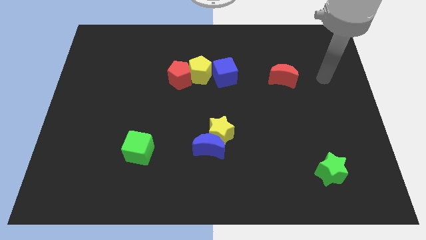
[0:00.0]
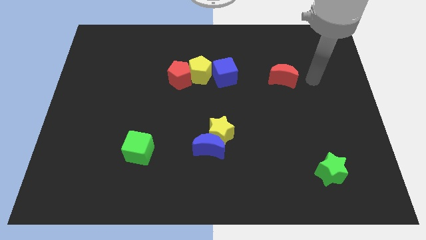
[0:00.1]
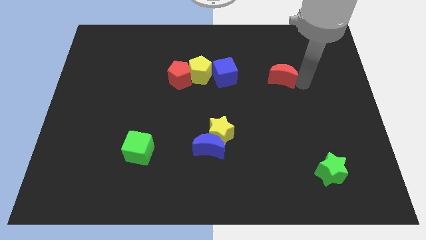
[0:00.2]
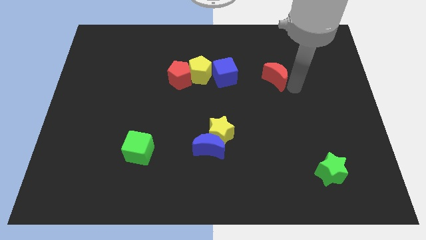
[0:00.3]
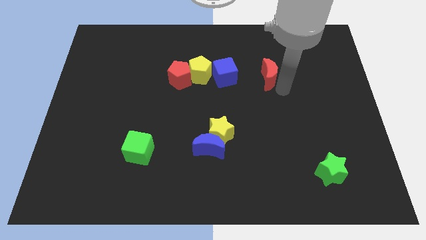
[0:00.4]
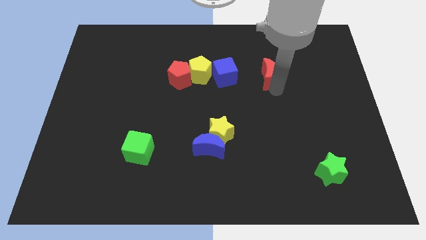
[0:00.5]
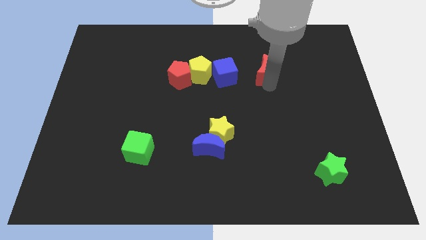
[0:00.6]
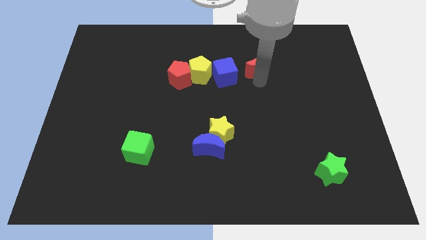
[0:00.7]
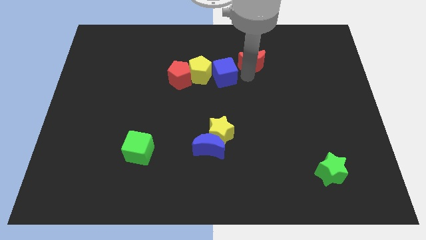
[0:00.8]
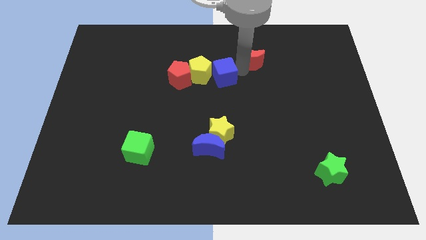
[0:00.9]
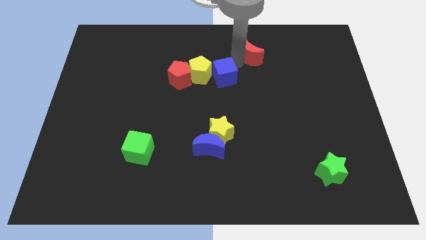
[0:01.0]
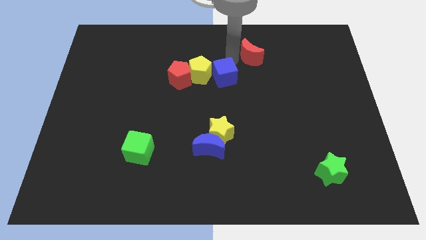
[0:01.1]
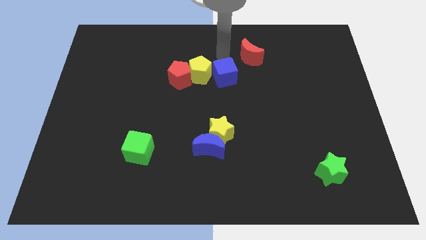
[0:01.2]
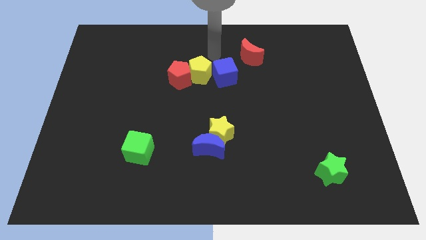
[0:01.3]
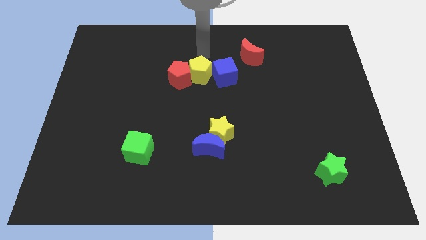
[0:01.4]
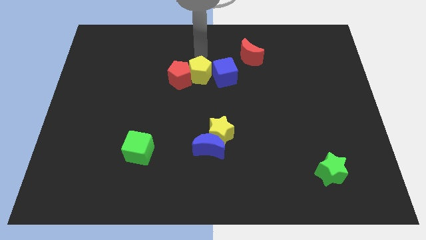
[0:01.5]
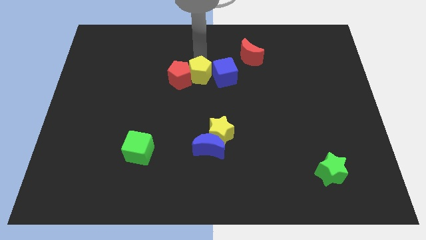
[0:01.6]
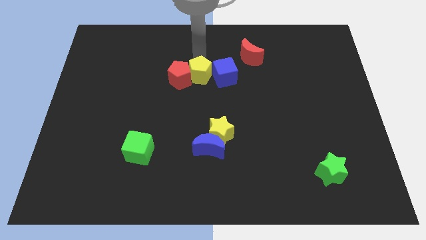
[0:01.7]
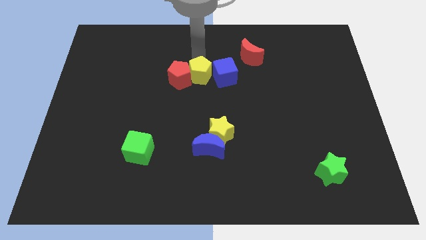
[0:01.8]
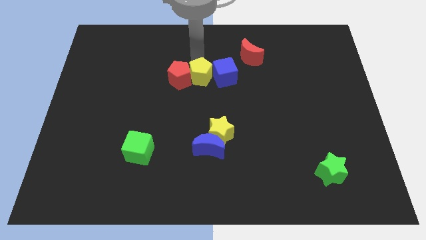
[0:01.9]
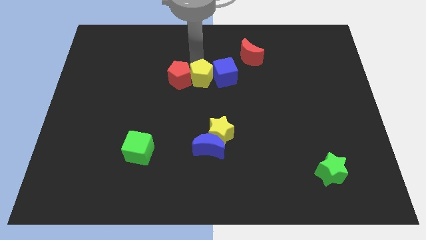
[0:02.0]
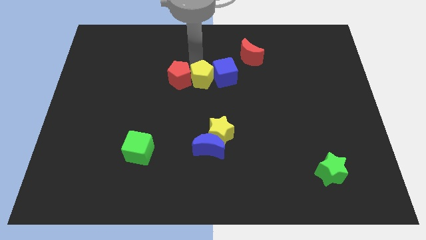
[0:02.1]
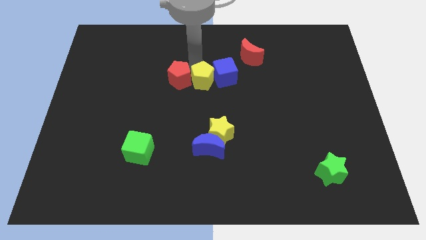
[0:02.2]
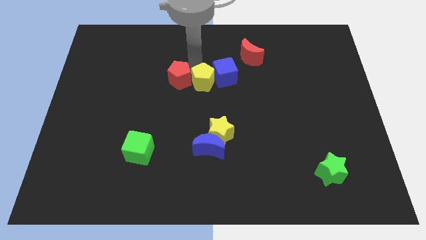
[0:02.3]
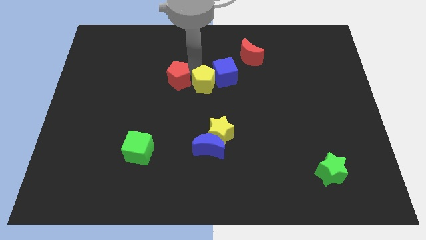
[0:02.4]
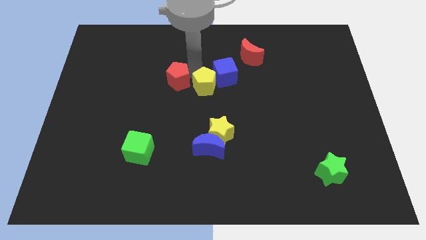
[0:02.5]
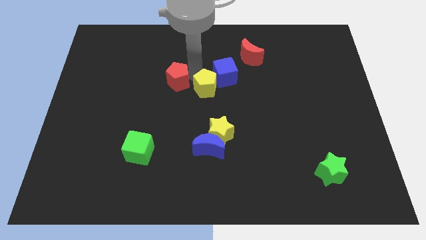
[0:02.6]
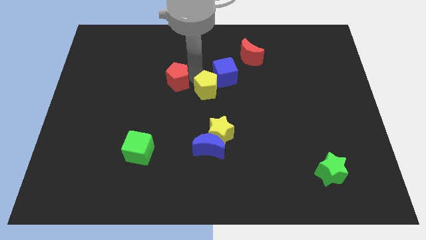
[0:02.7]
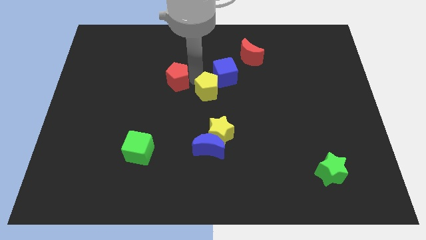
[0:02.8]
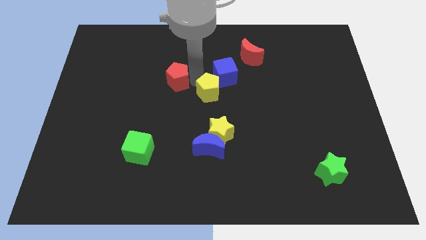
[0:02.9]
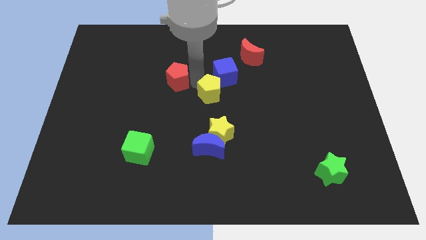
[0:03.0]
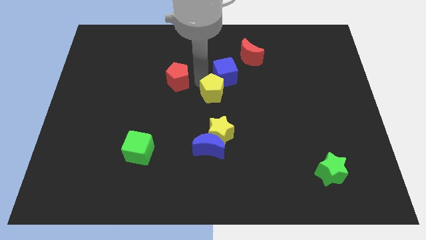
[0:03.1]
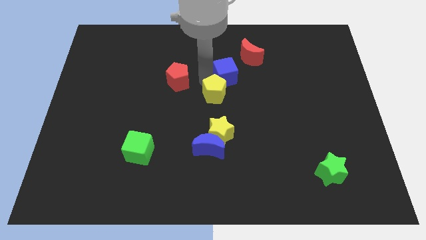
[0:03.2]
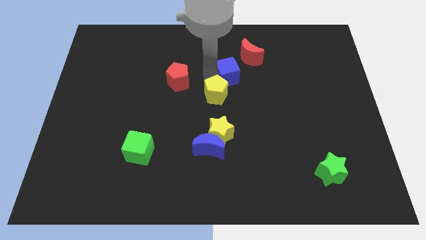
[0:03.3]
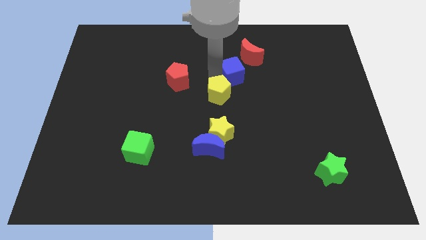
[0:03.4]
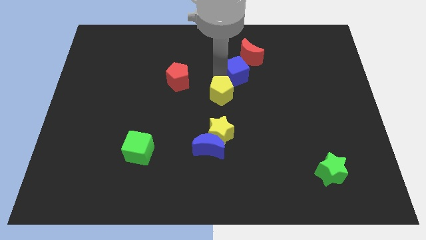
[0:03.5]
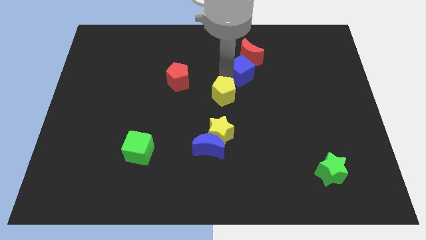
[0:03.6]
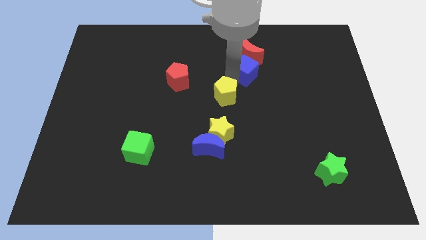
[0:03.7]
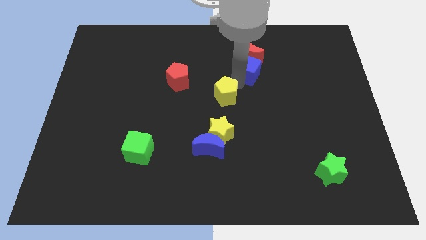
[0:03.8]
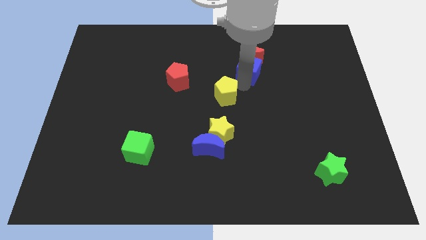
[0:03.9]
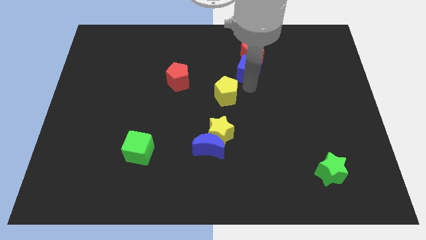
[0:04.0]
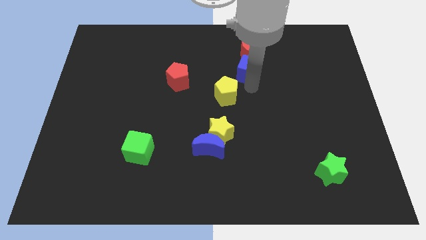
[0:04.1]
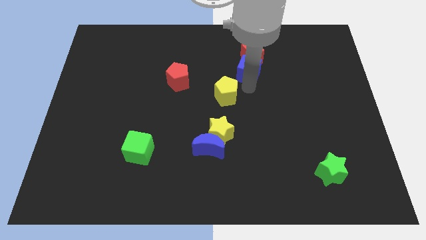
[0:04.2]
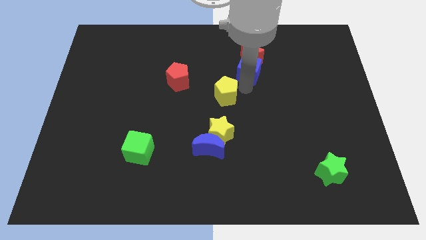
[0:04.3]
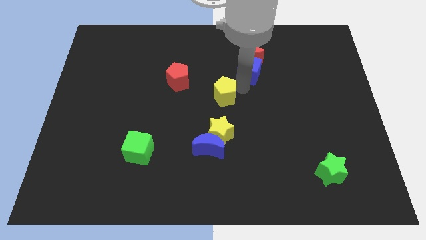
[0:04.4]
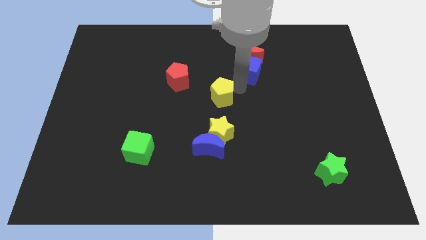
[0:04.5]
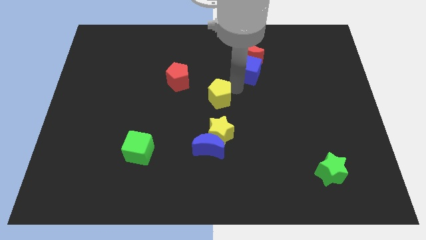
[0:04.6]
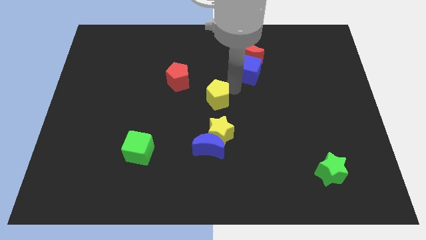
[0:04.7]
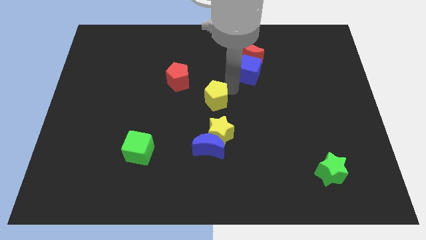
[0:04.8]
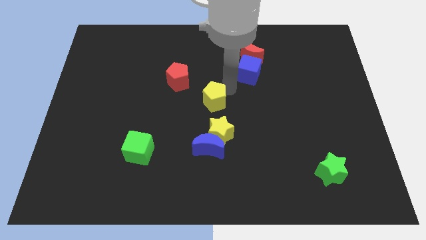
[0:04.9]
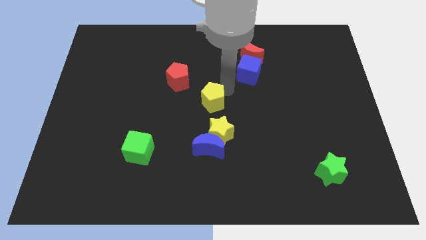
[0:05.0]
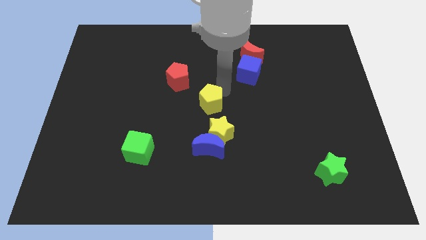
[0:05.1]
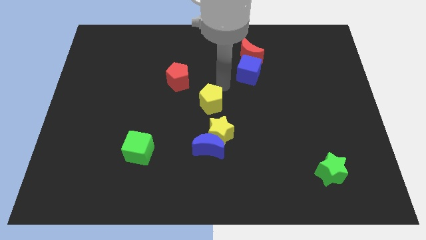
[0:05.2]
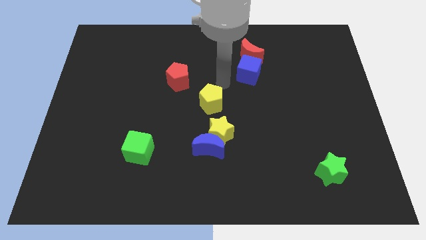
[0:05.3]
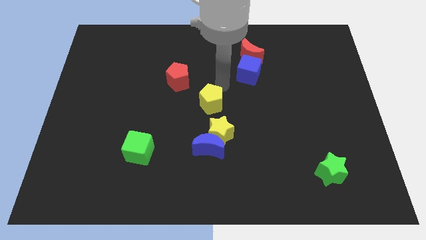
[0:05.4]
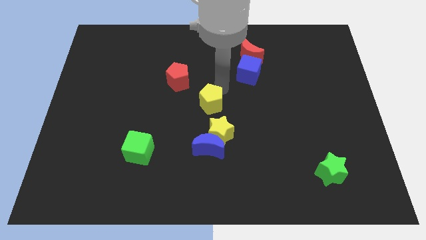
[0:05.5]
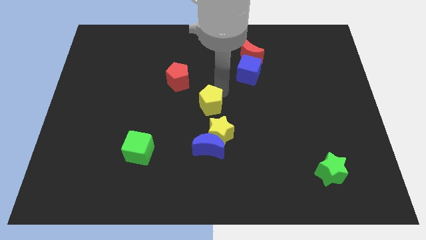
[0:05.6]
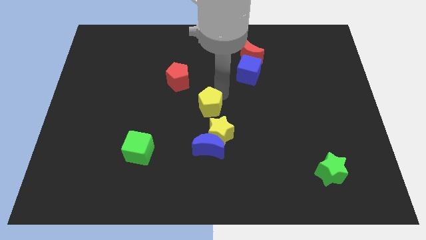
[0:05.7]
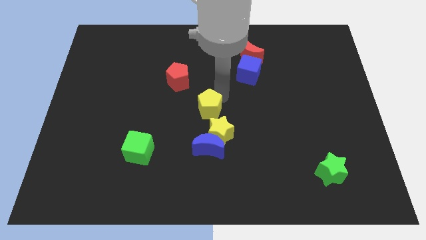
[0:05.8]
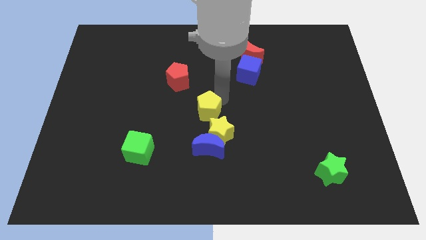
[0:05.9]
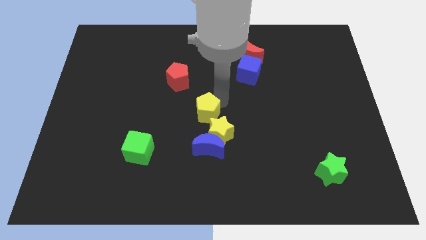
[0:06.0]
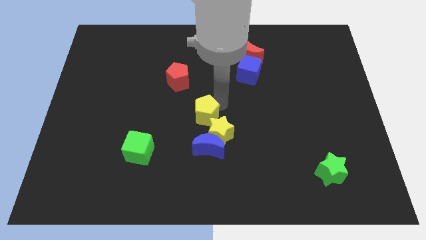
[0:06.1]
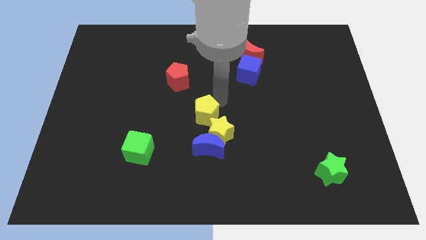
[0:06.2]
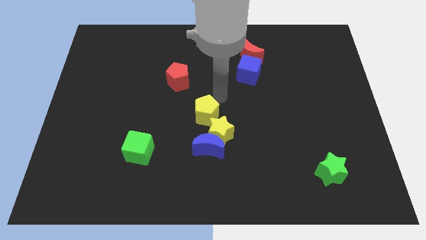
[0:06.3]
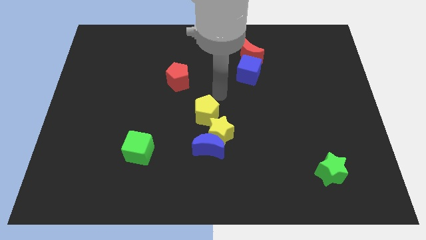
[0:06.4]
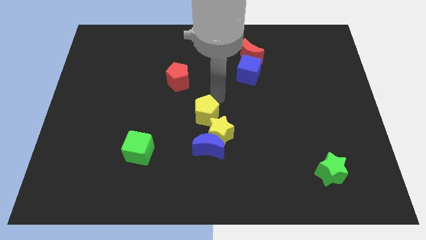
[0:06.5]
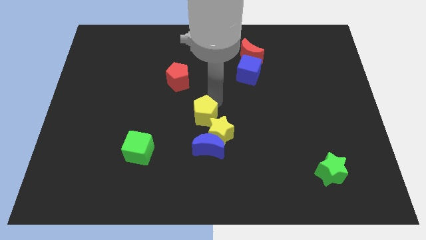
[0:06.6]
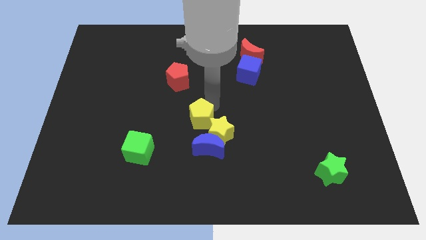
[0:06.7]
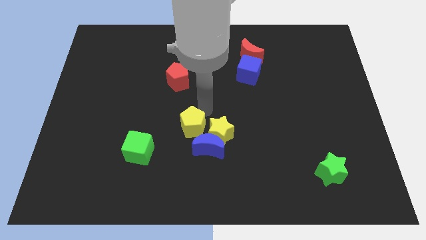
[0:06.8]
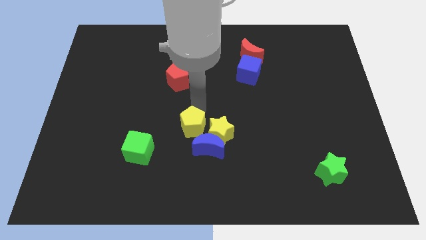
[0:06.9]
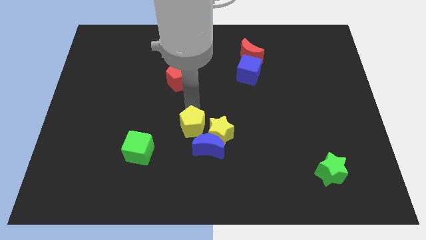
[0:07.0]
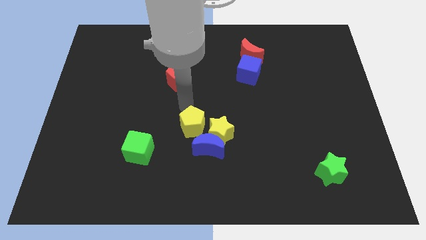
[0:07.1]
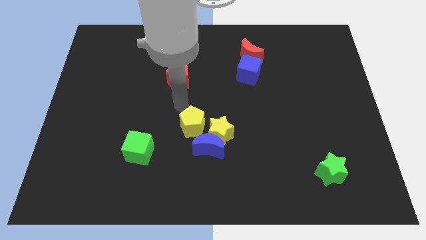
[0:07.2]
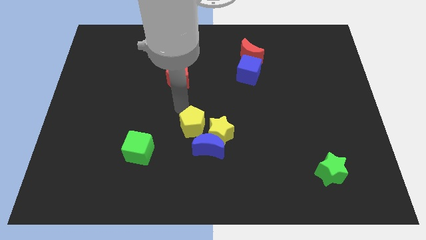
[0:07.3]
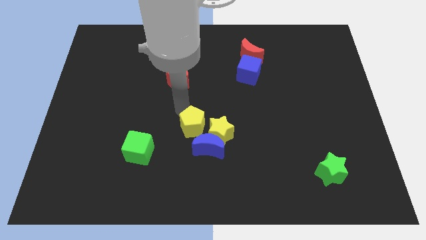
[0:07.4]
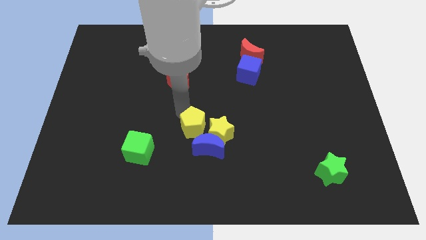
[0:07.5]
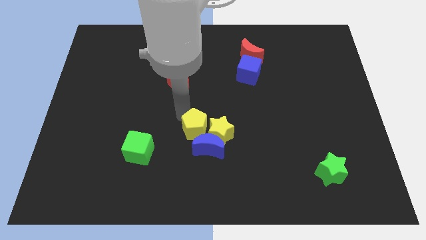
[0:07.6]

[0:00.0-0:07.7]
put the yellow pentagon next to the blue moon
